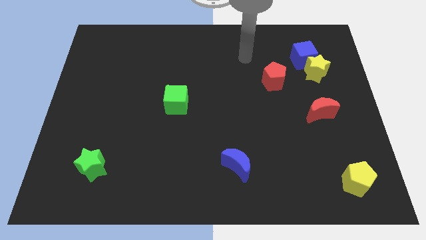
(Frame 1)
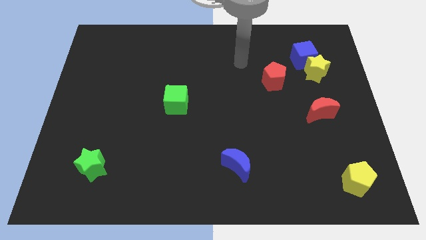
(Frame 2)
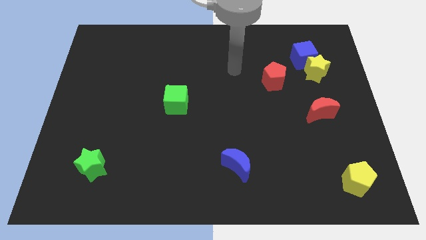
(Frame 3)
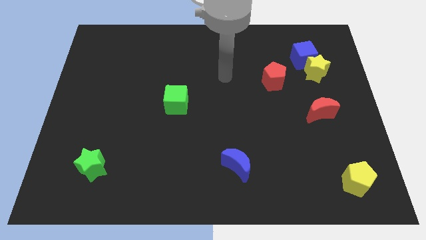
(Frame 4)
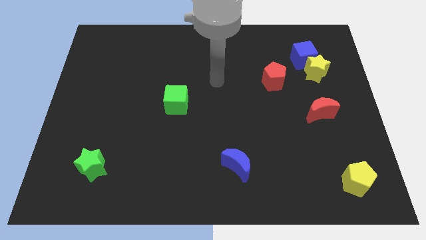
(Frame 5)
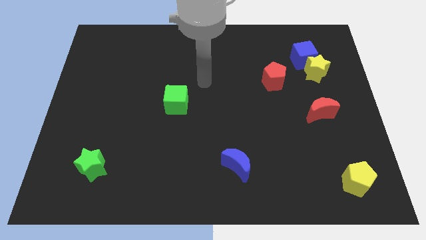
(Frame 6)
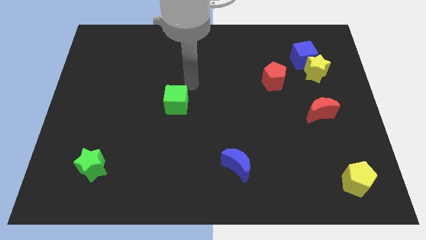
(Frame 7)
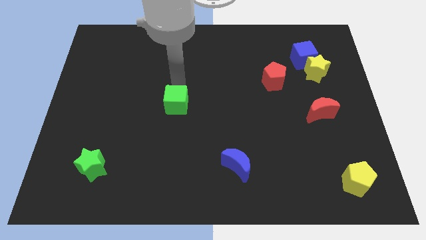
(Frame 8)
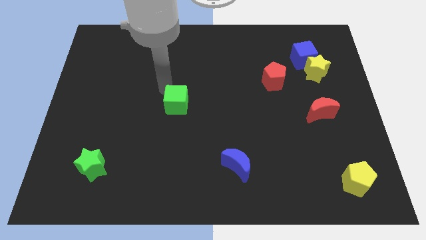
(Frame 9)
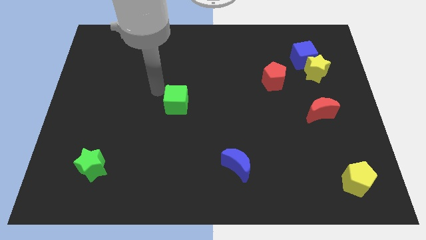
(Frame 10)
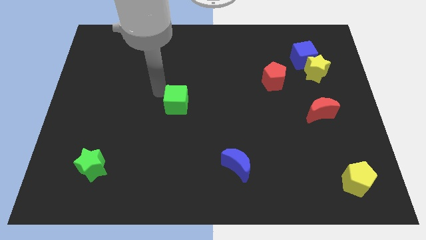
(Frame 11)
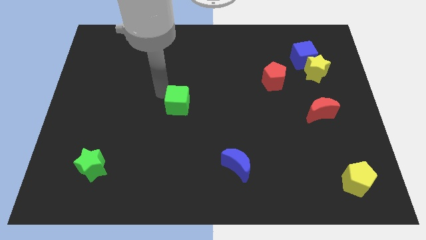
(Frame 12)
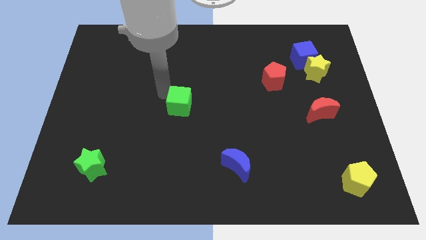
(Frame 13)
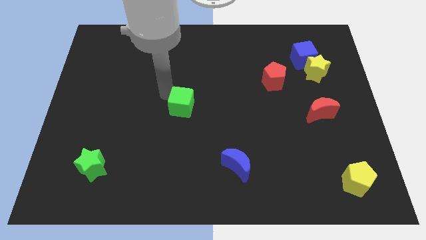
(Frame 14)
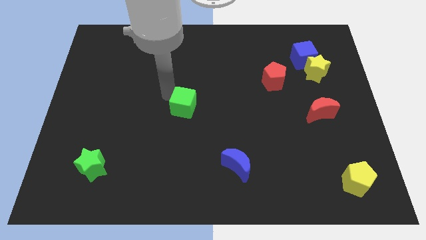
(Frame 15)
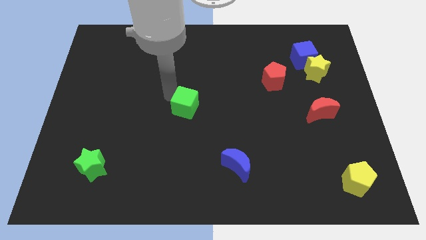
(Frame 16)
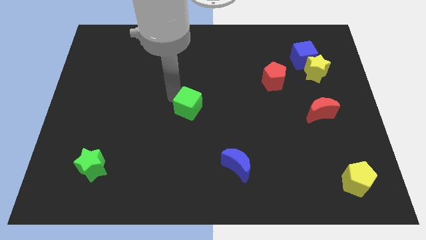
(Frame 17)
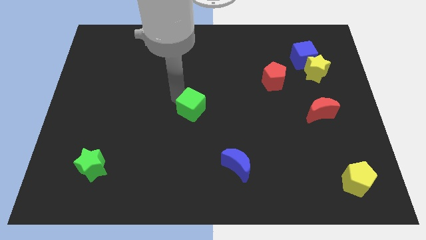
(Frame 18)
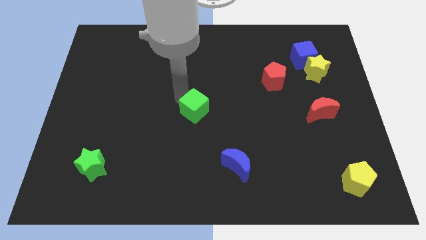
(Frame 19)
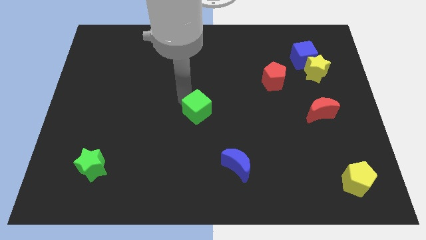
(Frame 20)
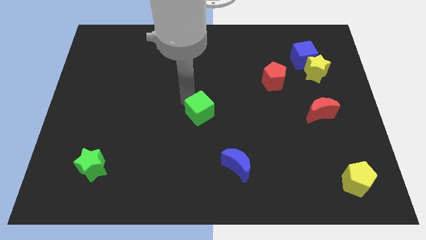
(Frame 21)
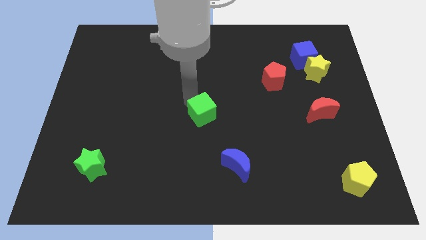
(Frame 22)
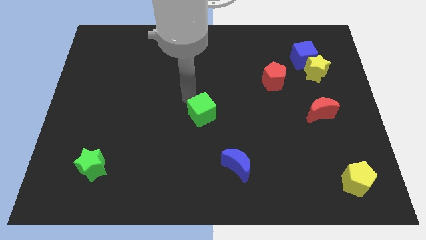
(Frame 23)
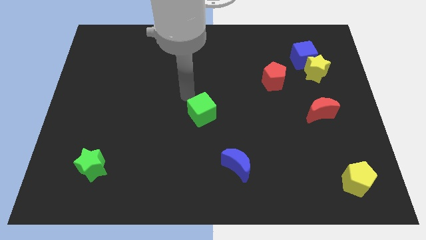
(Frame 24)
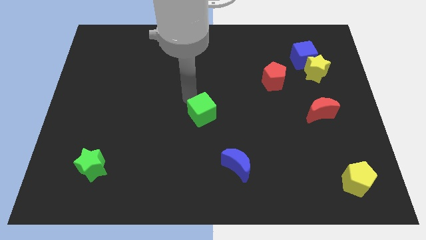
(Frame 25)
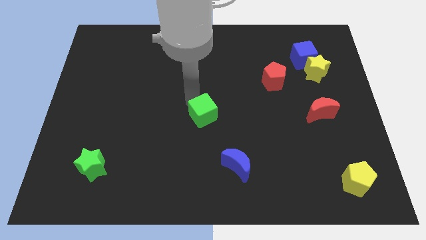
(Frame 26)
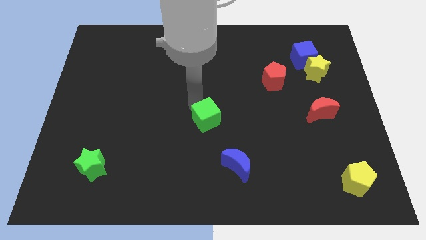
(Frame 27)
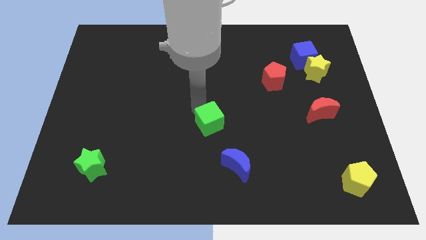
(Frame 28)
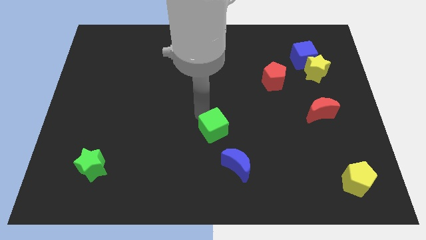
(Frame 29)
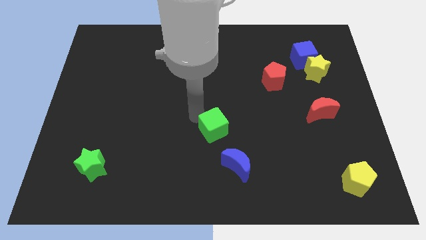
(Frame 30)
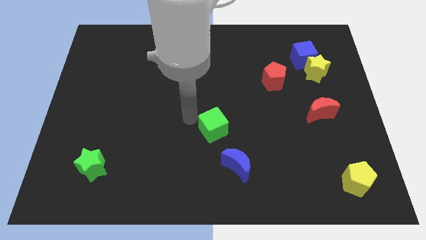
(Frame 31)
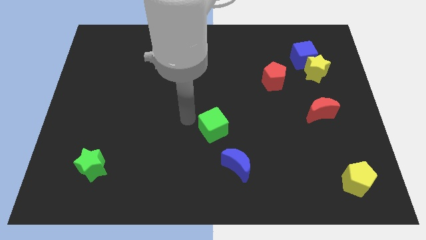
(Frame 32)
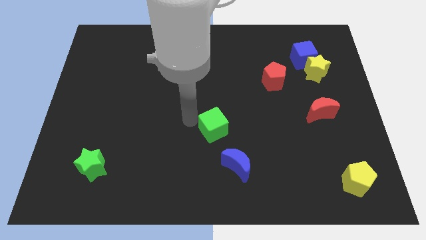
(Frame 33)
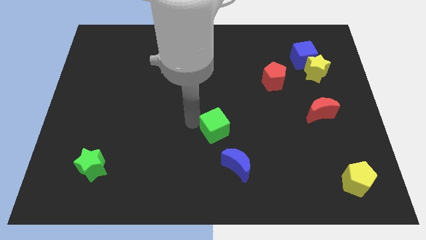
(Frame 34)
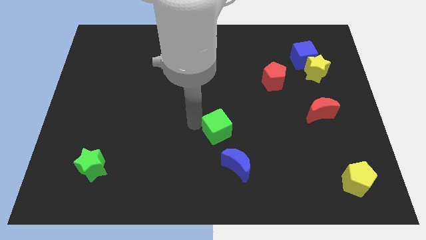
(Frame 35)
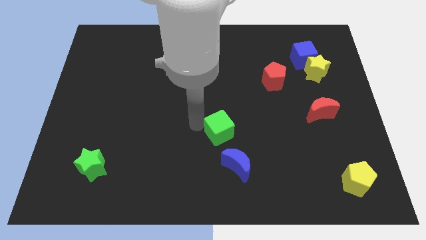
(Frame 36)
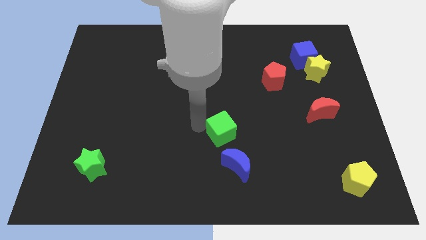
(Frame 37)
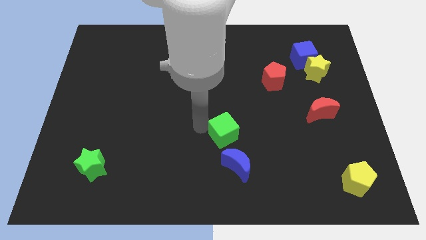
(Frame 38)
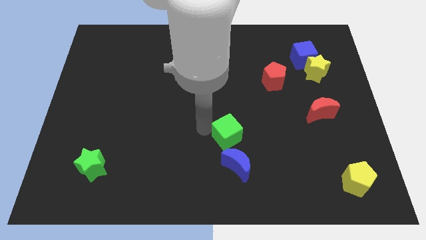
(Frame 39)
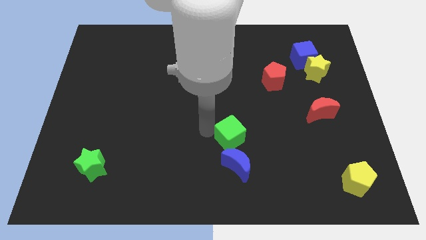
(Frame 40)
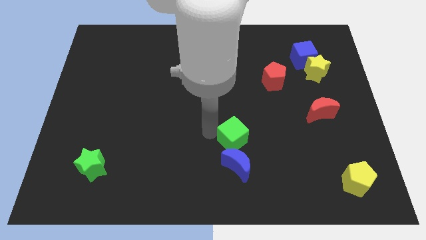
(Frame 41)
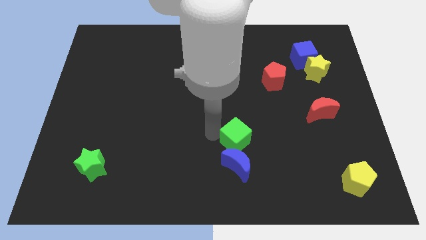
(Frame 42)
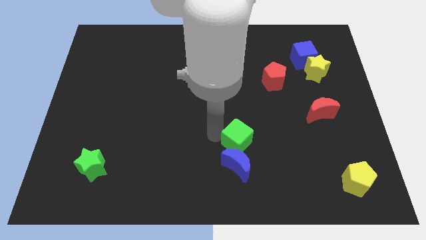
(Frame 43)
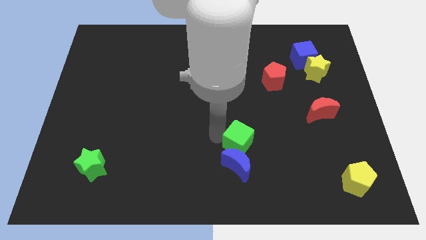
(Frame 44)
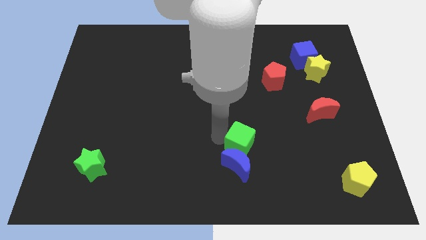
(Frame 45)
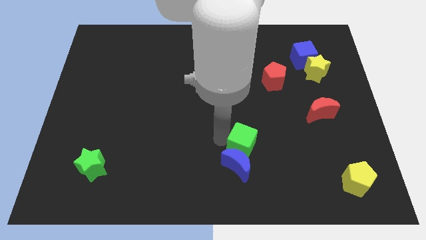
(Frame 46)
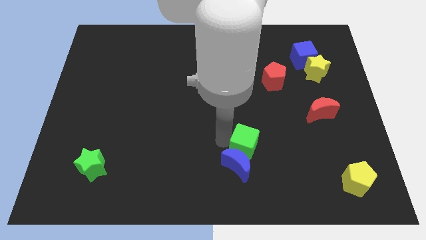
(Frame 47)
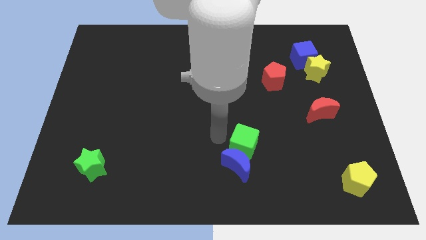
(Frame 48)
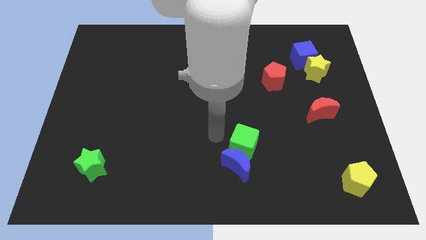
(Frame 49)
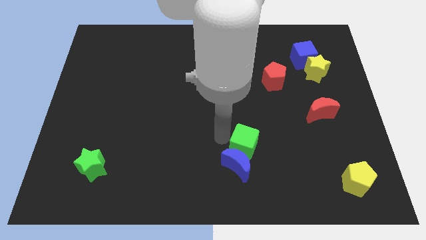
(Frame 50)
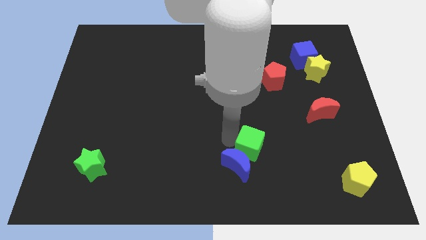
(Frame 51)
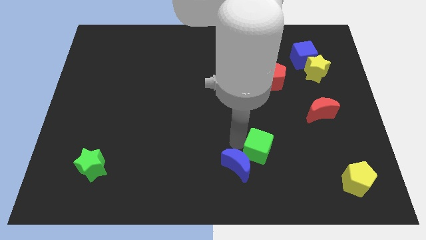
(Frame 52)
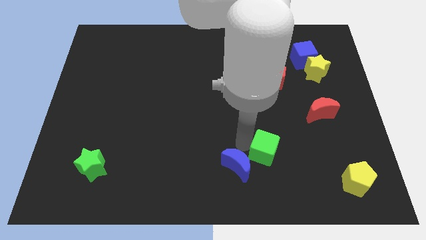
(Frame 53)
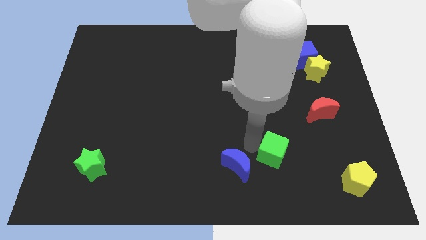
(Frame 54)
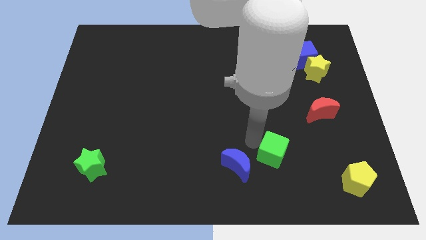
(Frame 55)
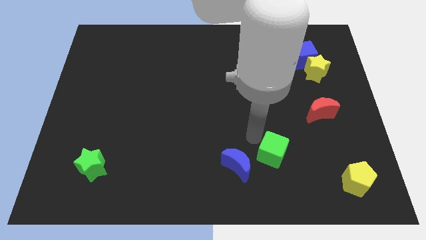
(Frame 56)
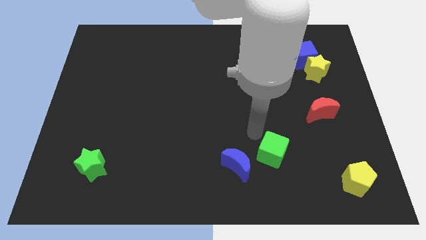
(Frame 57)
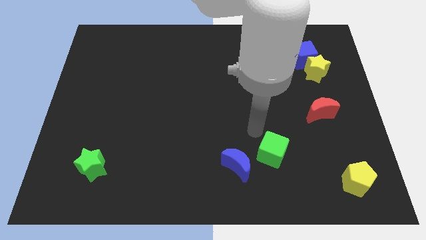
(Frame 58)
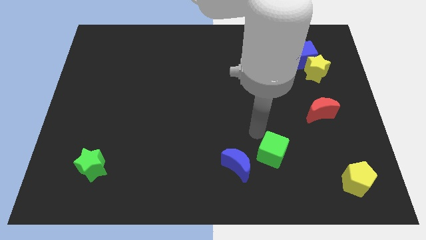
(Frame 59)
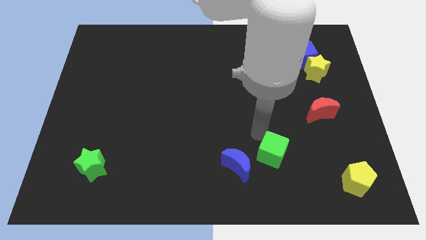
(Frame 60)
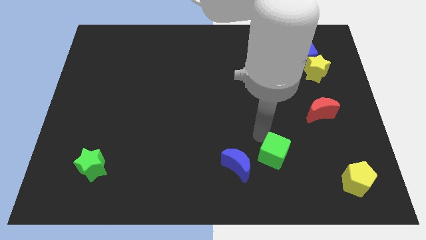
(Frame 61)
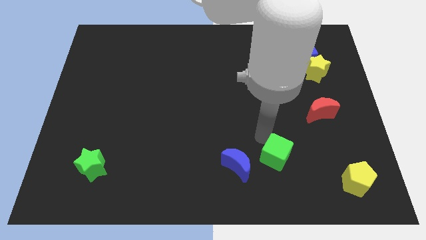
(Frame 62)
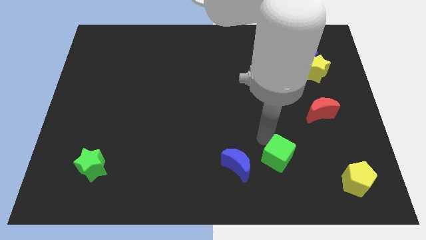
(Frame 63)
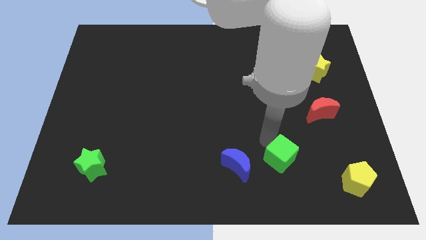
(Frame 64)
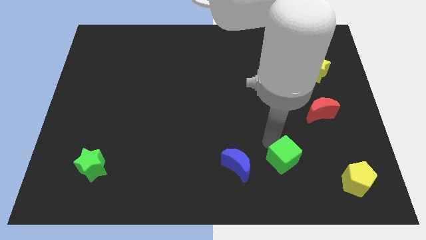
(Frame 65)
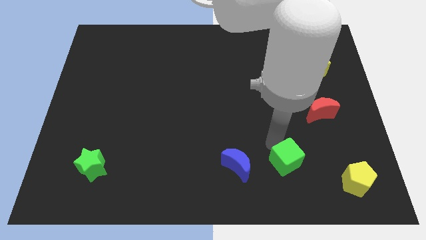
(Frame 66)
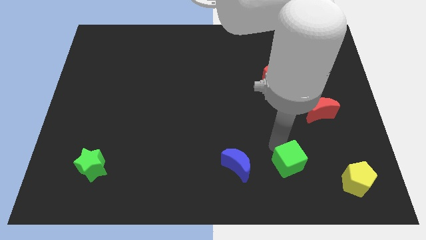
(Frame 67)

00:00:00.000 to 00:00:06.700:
put the green cube just left of the yellow pentagon

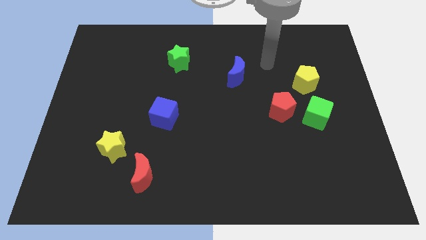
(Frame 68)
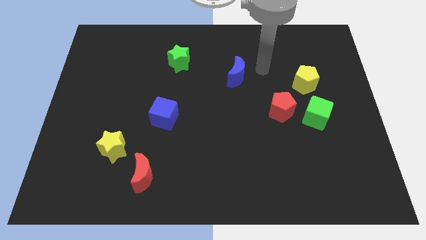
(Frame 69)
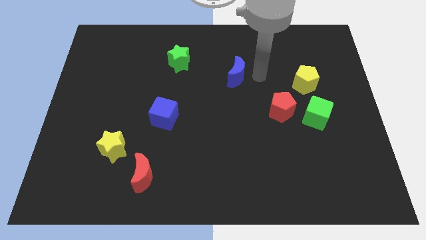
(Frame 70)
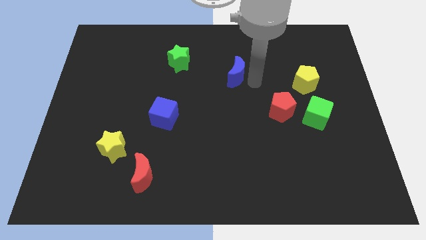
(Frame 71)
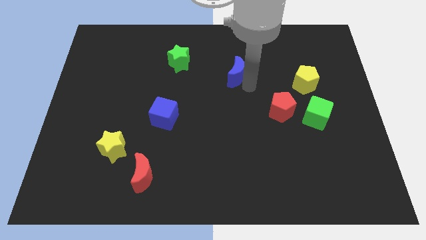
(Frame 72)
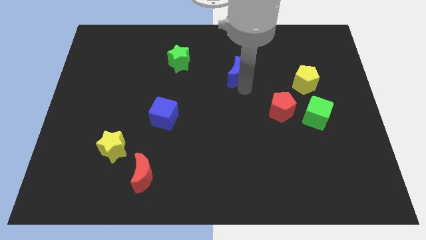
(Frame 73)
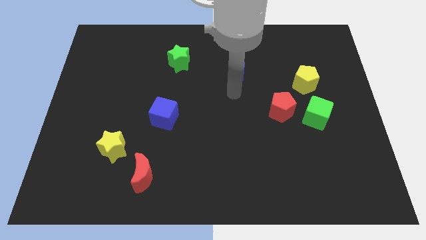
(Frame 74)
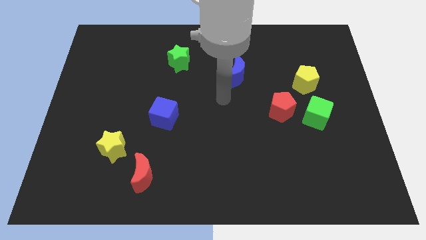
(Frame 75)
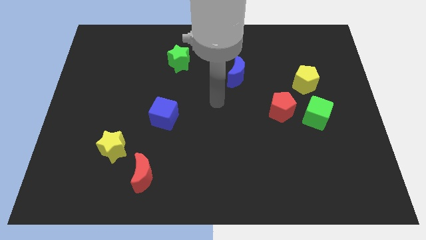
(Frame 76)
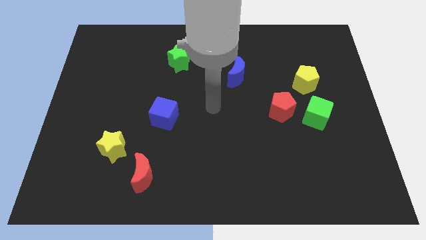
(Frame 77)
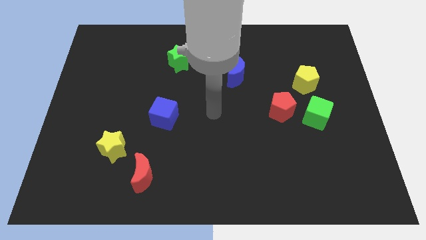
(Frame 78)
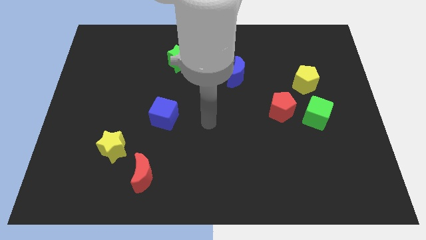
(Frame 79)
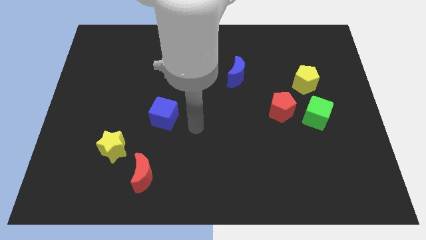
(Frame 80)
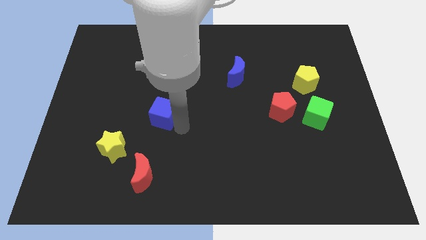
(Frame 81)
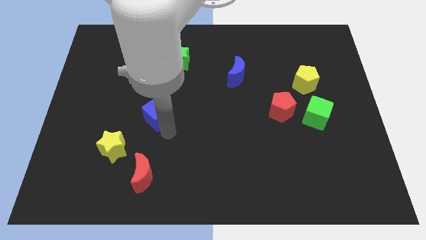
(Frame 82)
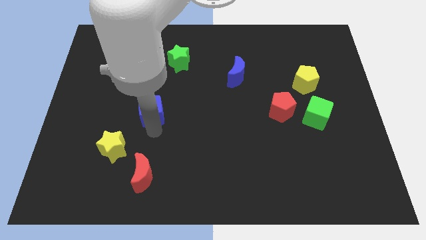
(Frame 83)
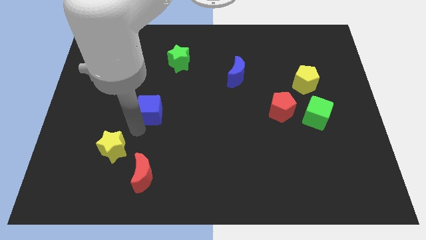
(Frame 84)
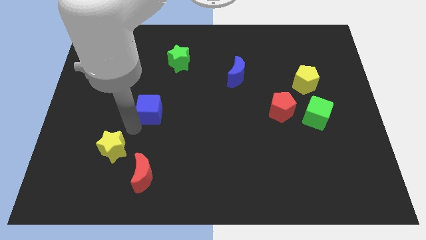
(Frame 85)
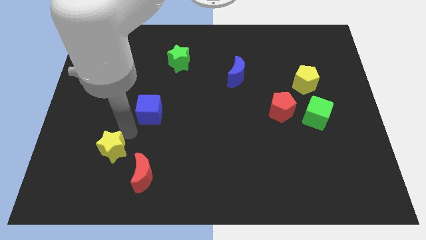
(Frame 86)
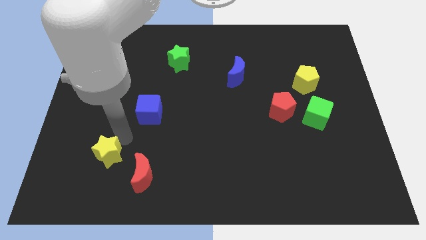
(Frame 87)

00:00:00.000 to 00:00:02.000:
push the yellow star left of the red moon
